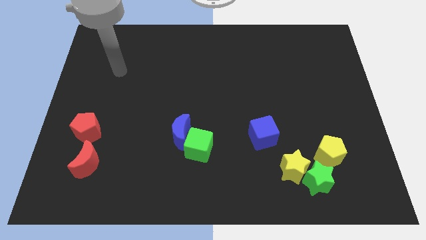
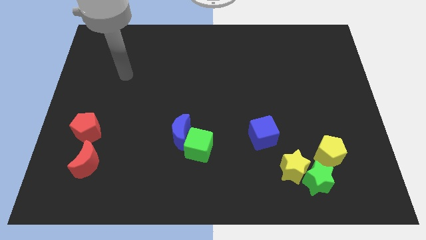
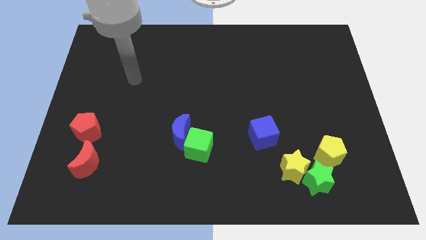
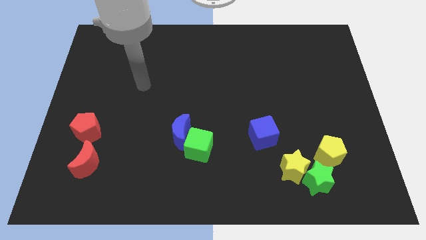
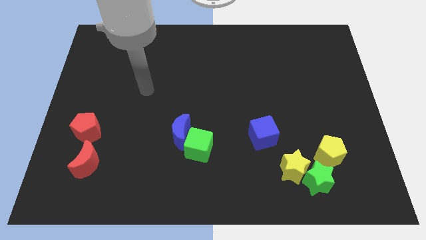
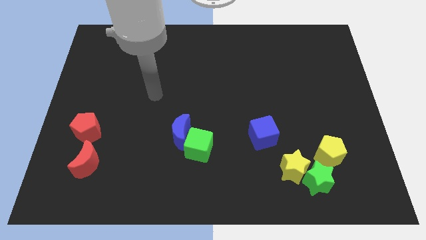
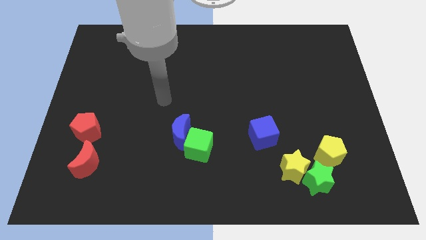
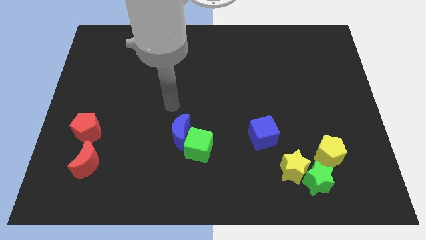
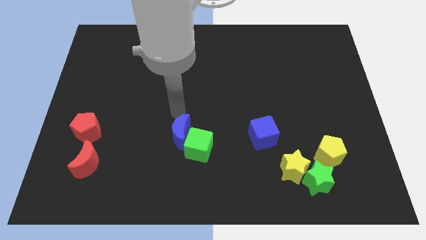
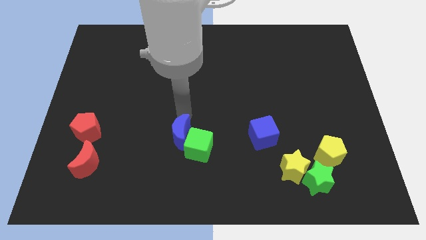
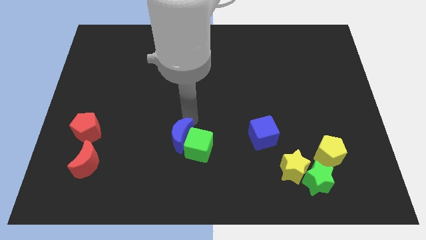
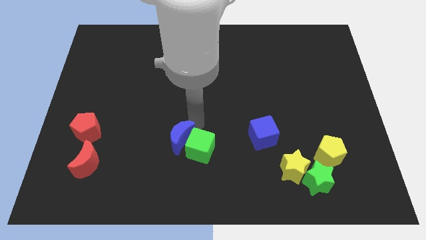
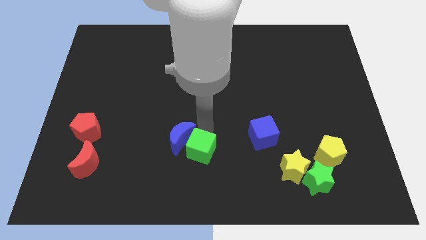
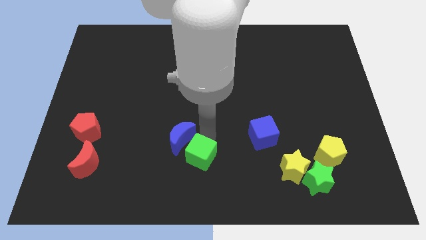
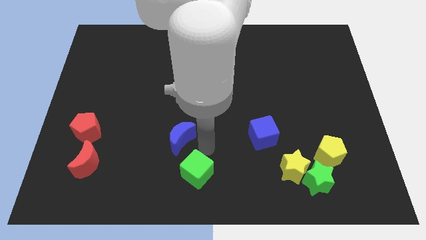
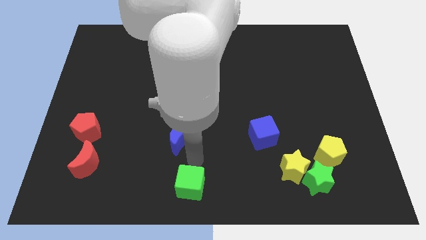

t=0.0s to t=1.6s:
pull the blue moon apart from the green cube

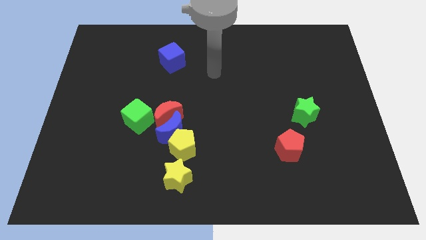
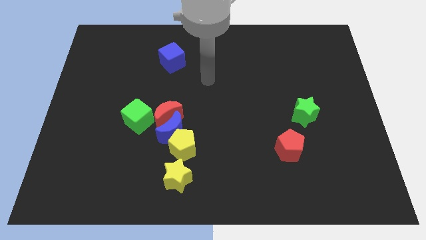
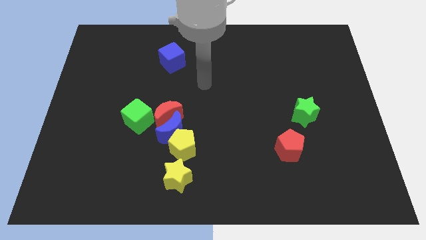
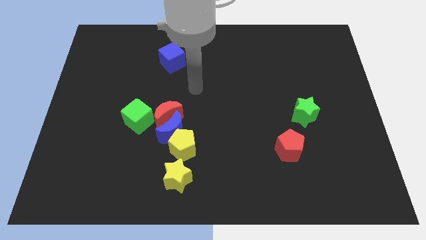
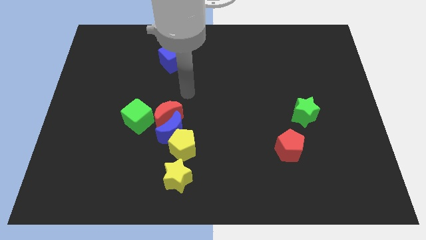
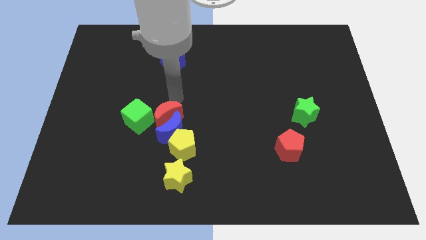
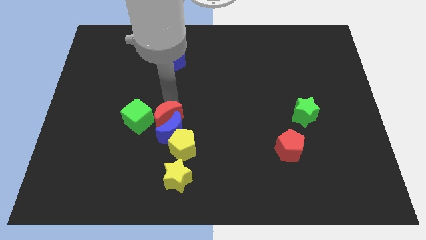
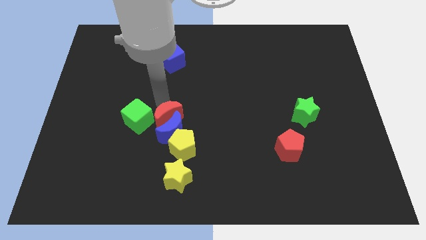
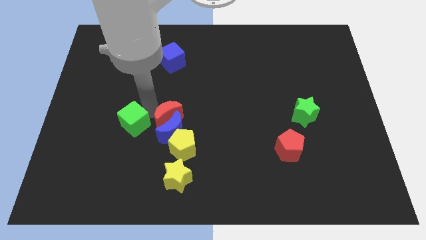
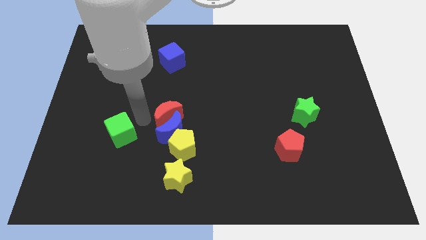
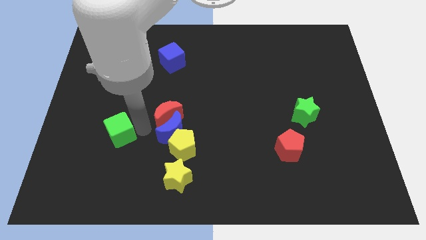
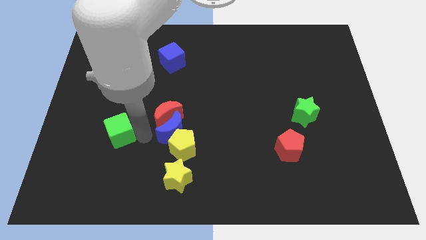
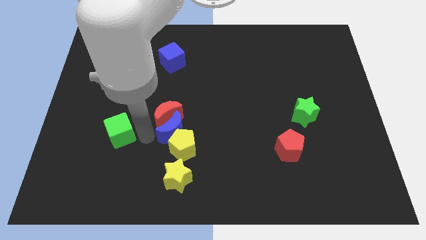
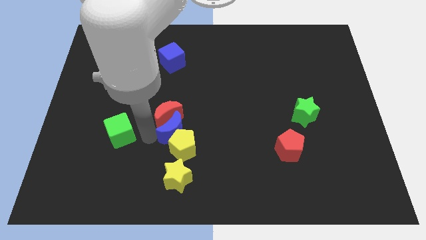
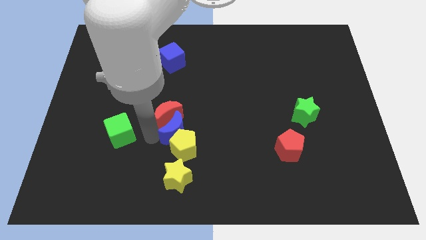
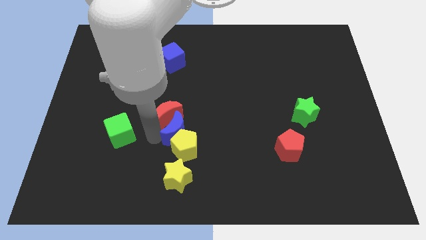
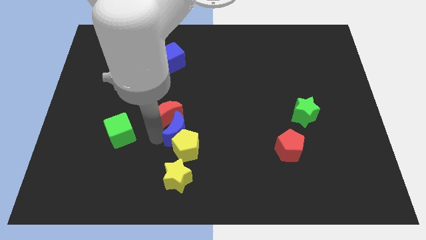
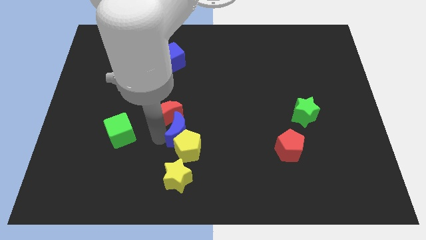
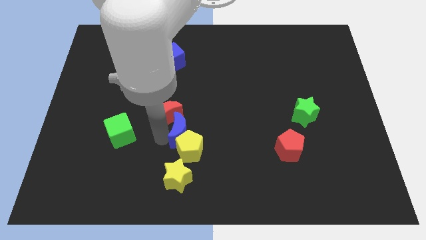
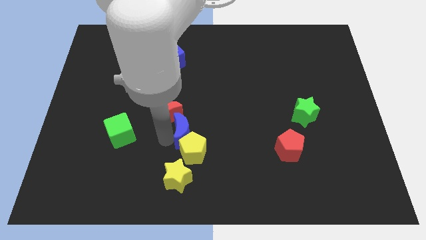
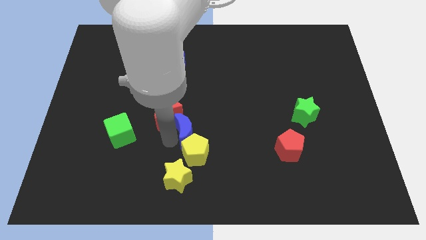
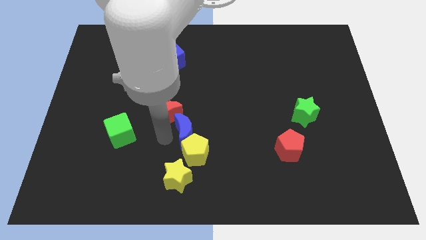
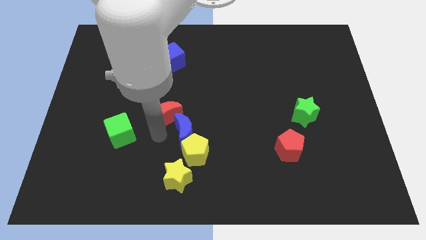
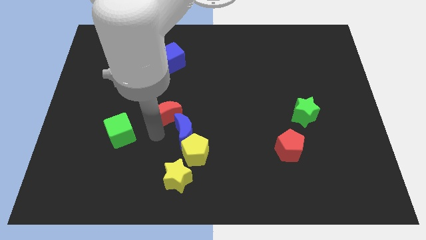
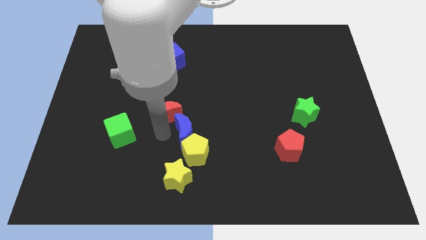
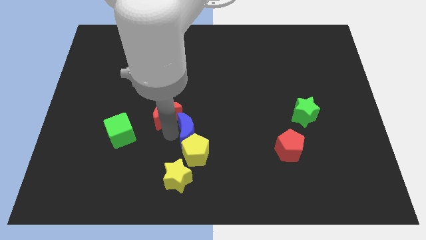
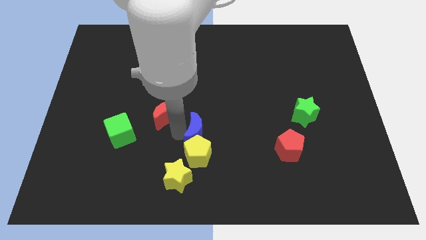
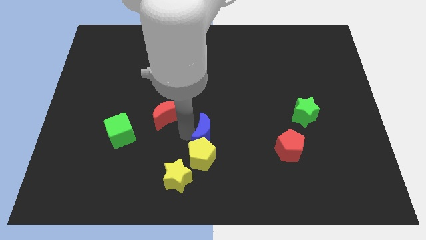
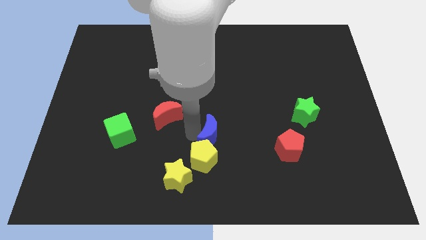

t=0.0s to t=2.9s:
separate the blue moon from the red moon, yellow pentagon, and green cube

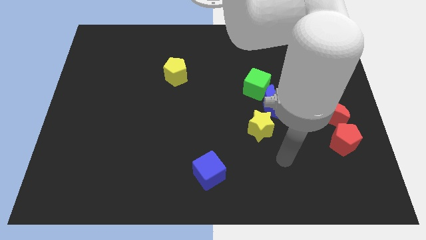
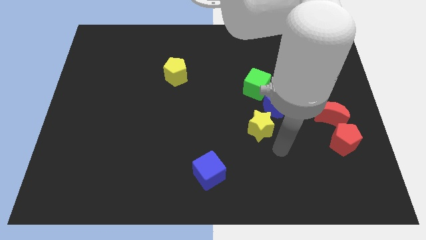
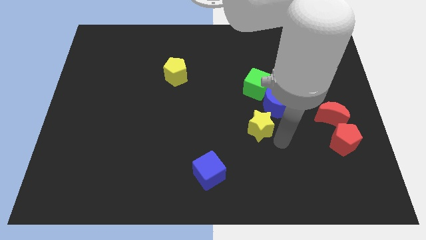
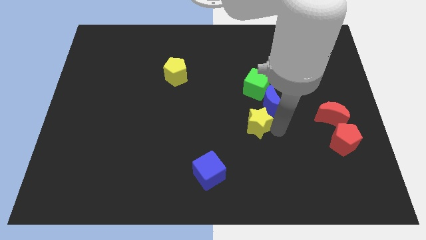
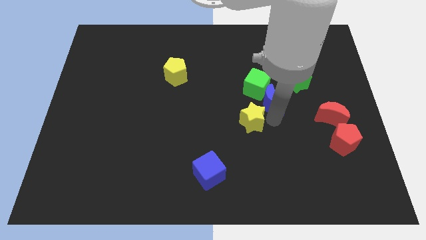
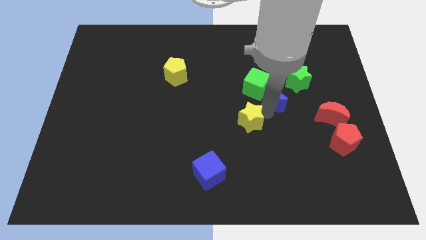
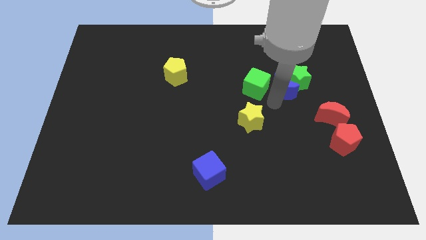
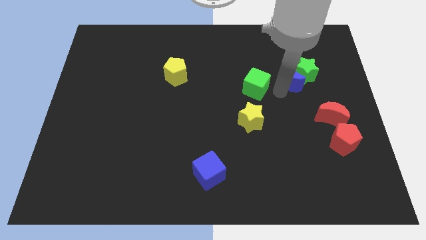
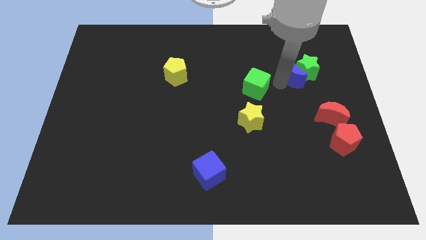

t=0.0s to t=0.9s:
move the green cube away from the blue moon

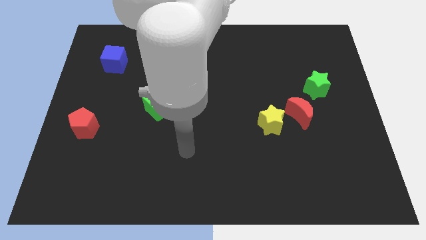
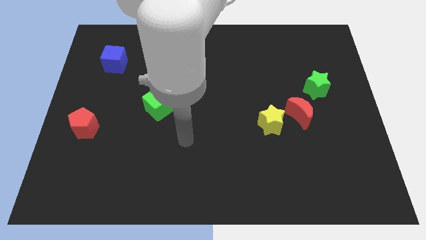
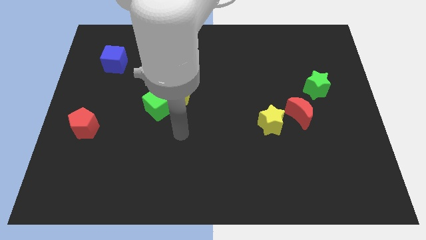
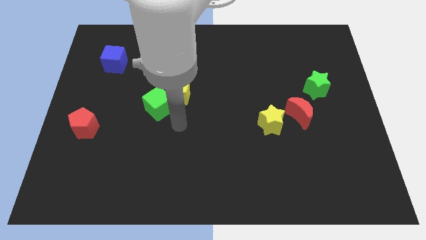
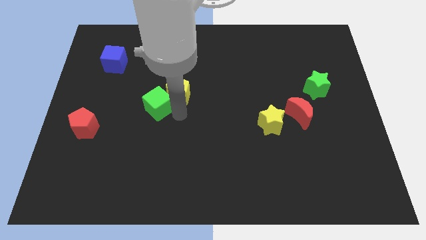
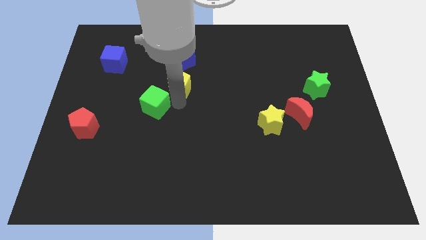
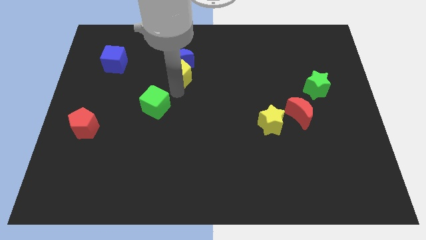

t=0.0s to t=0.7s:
separate the green cube from the yellow pentagon

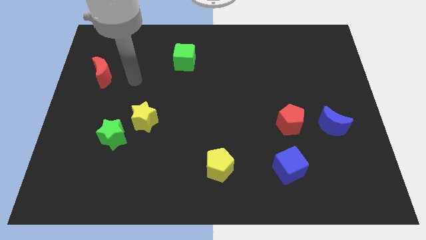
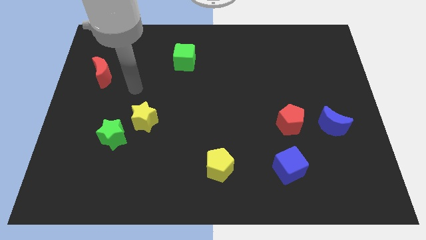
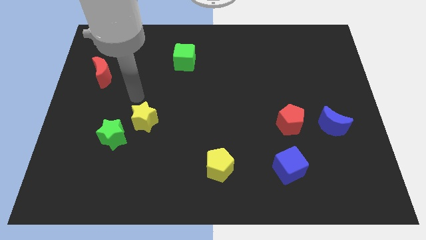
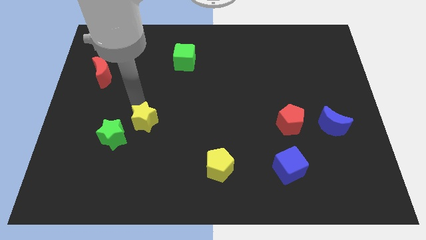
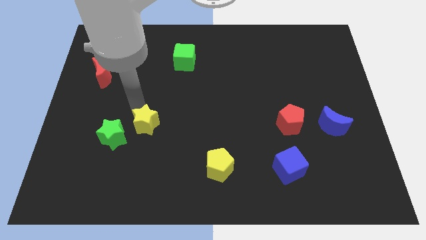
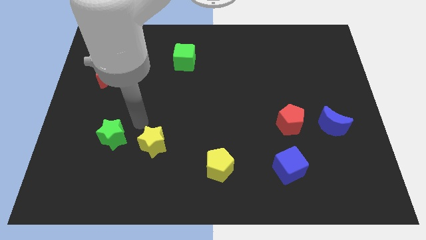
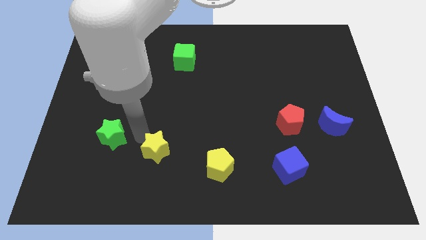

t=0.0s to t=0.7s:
pull the green star apart from the yellow star

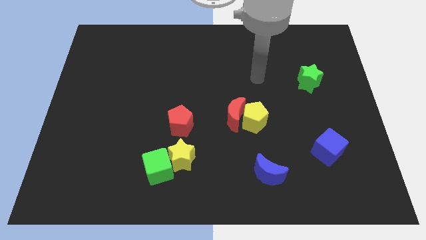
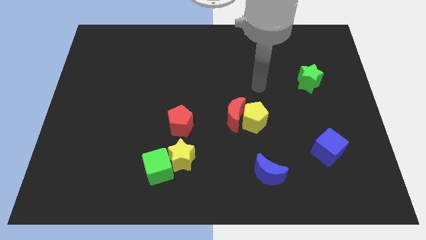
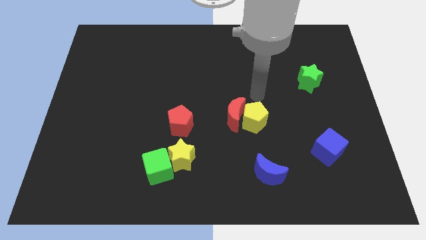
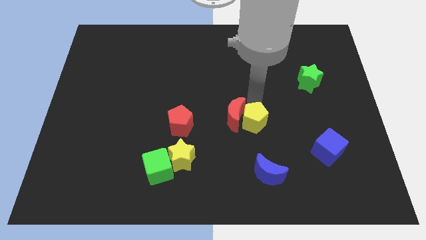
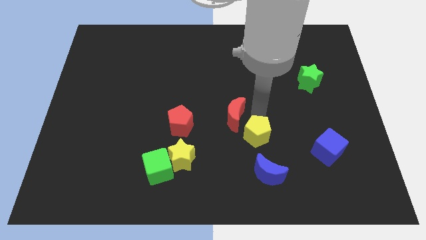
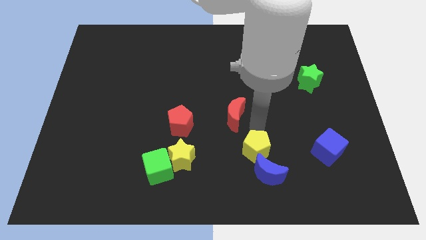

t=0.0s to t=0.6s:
separate the red moon from the yellow pentagon

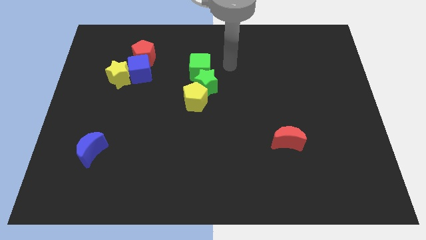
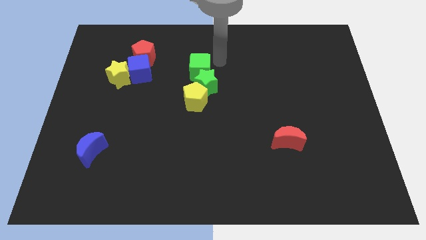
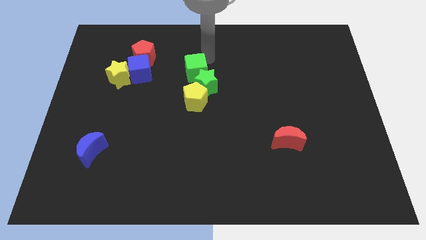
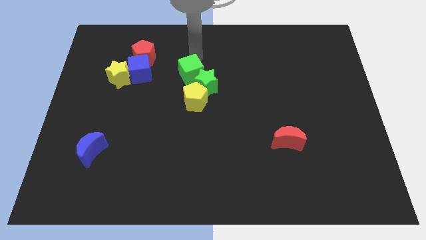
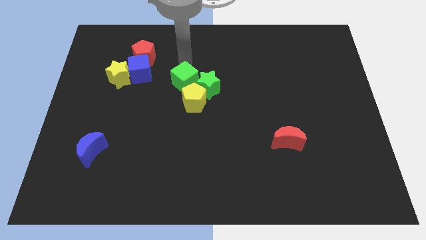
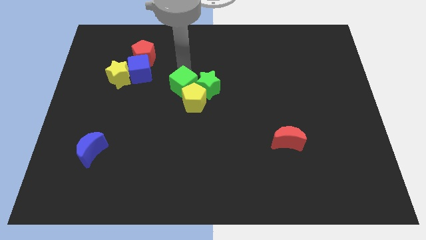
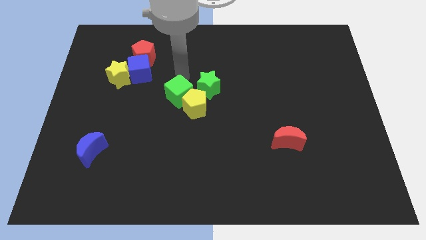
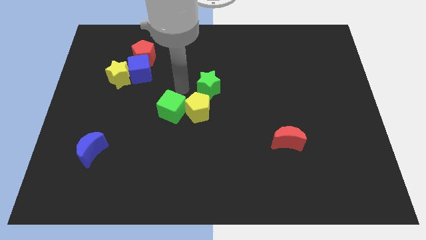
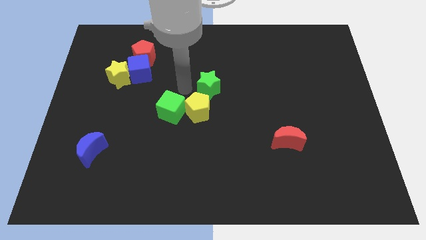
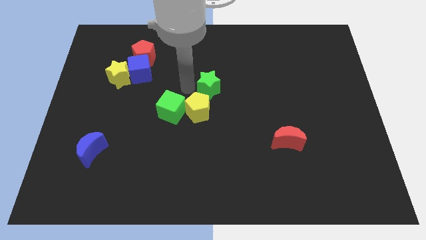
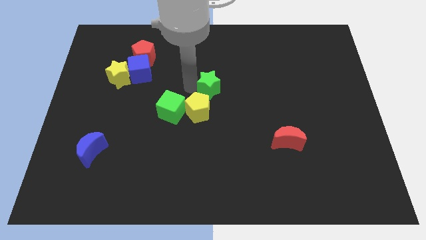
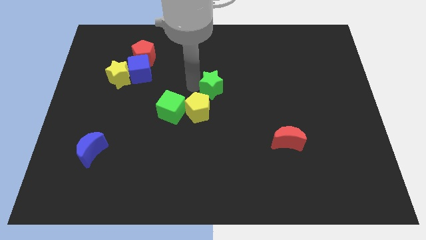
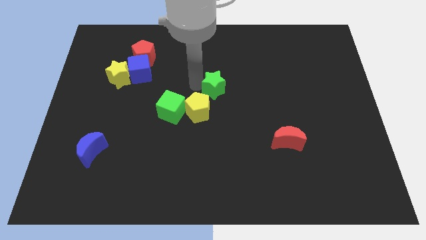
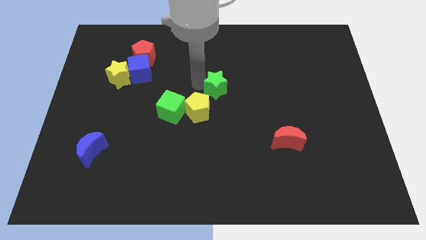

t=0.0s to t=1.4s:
move the green star away from the green cube and yellow pentagon

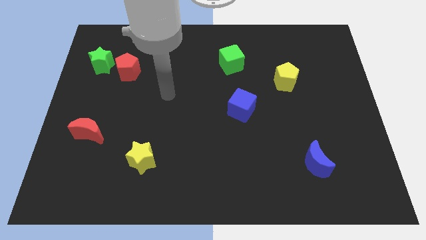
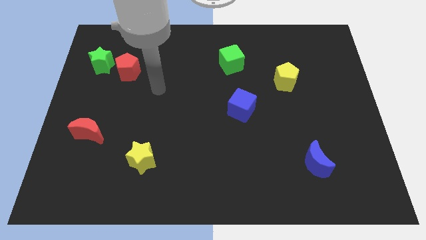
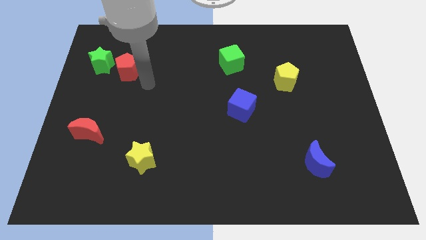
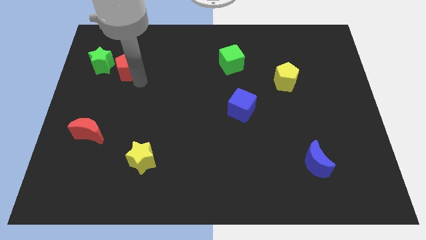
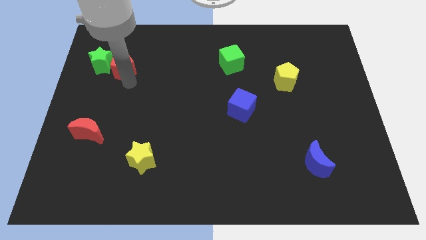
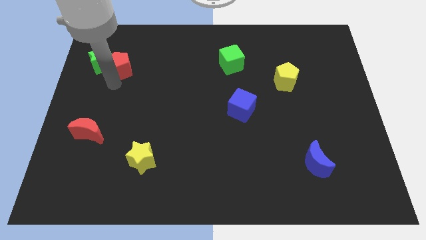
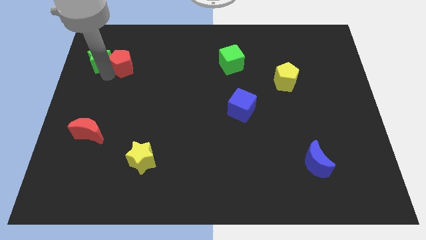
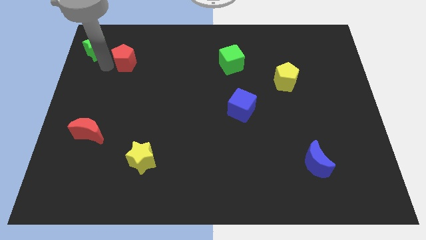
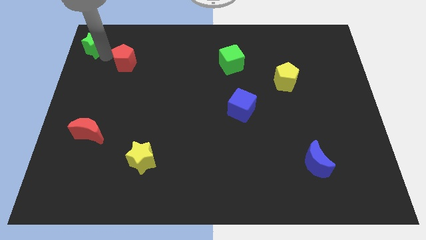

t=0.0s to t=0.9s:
pull the red pentagon apart from the green star
